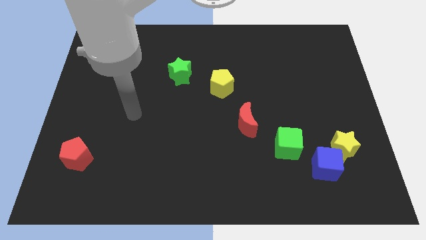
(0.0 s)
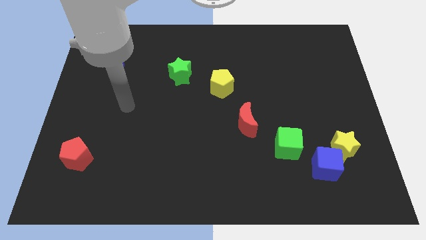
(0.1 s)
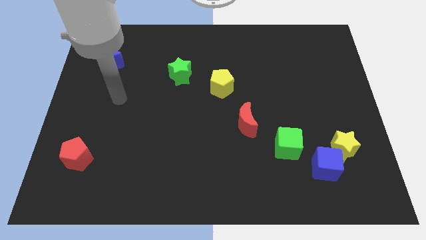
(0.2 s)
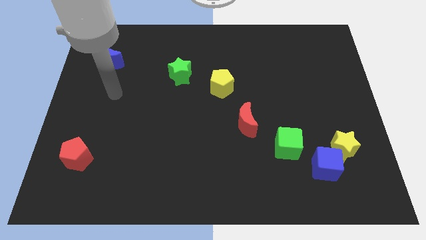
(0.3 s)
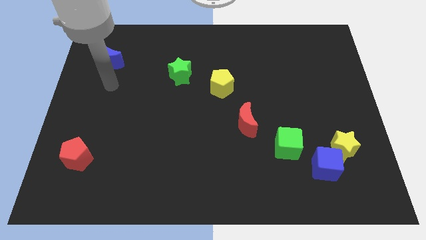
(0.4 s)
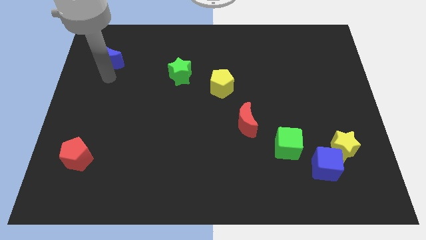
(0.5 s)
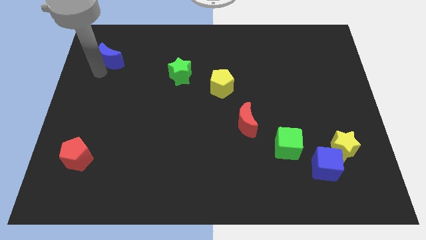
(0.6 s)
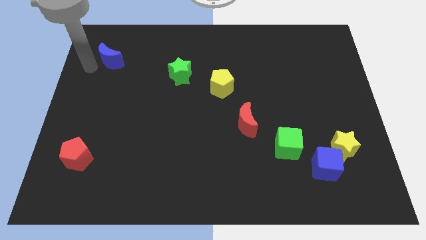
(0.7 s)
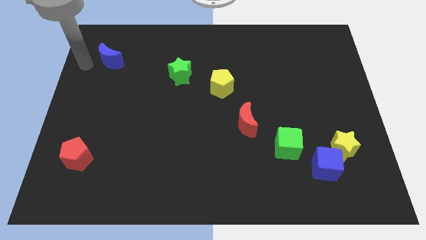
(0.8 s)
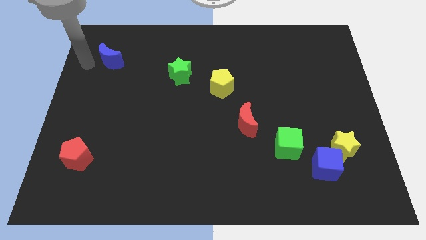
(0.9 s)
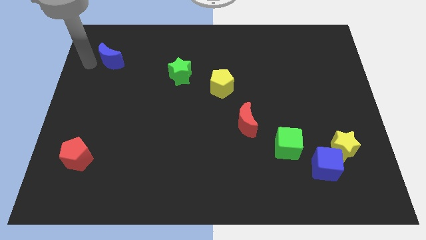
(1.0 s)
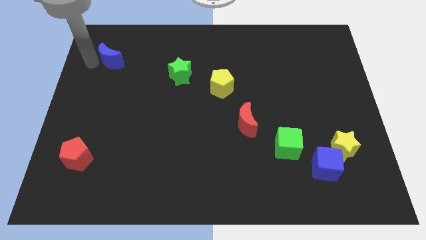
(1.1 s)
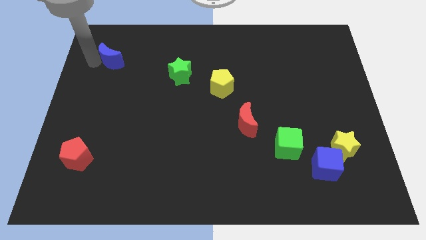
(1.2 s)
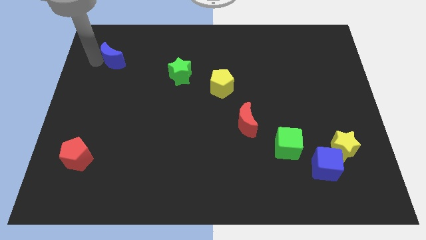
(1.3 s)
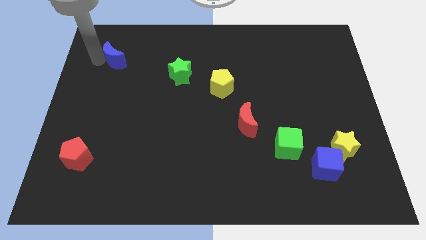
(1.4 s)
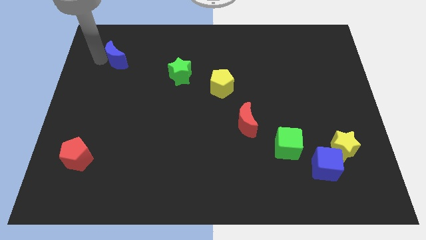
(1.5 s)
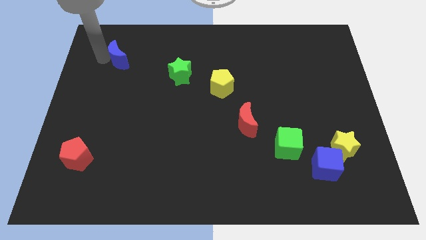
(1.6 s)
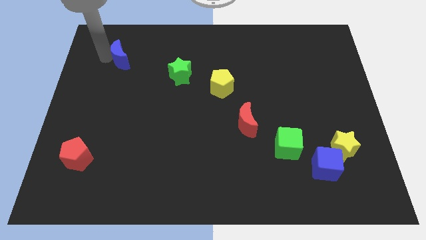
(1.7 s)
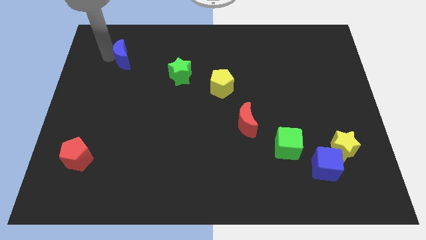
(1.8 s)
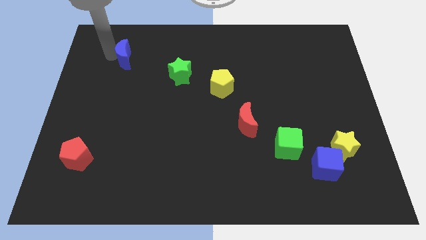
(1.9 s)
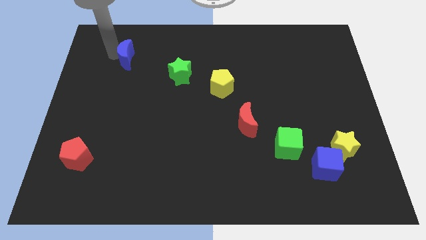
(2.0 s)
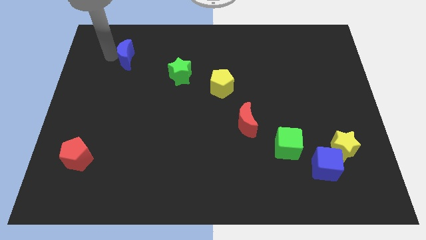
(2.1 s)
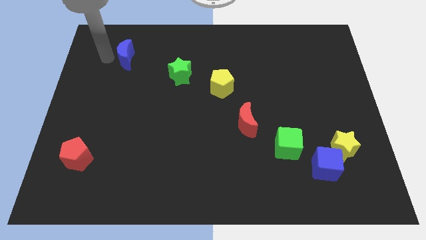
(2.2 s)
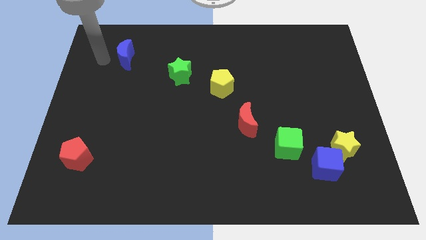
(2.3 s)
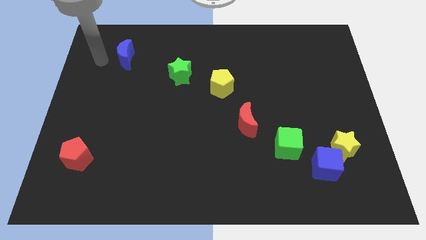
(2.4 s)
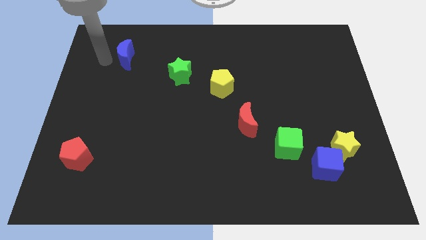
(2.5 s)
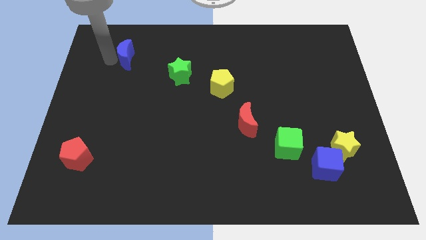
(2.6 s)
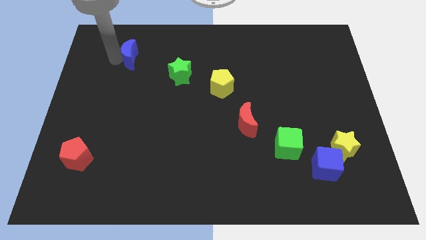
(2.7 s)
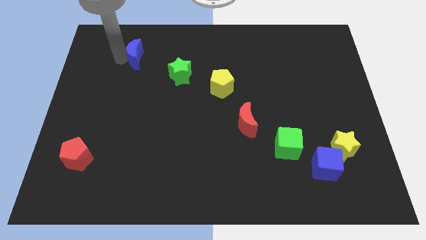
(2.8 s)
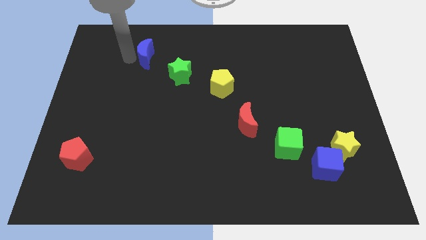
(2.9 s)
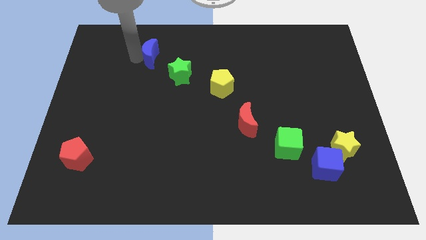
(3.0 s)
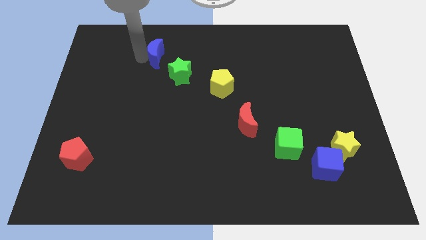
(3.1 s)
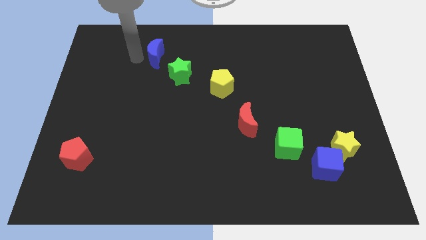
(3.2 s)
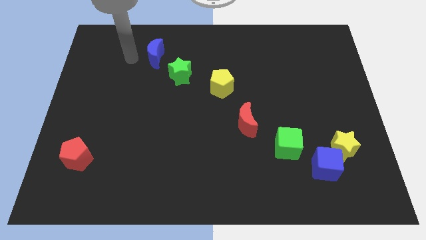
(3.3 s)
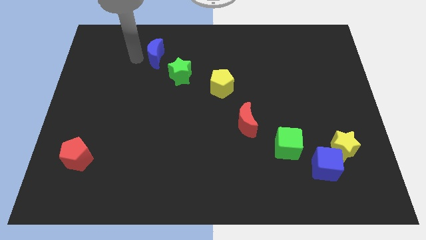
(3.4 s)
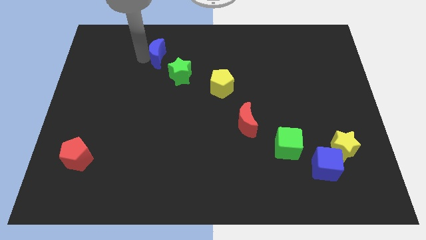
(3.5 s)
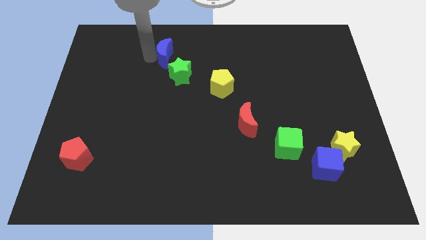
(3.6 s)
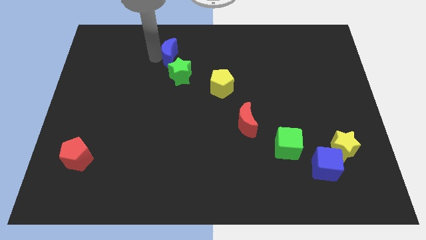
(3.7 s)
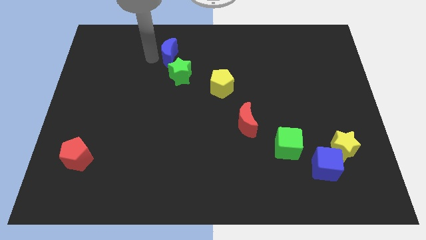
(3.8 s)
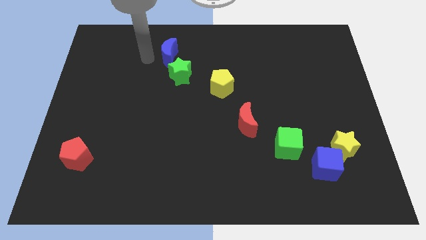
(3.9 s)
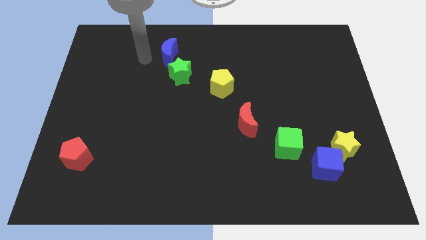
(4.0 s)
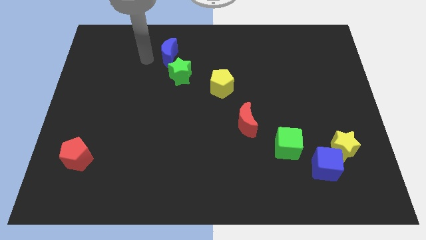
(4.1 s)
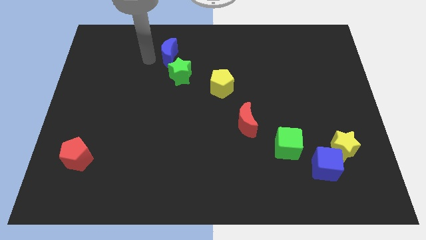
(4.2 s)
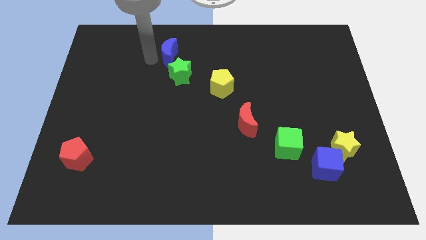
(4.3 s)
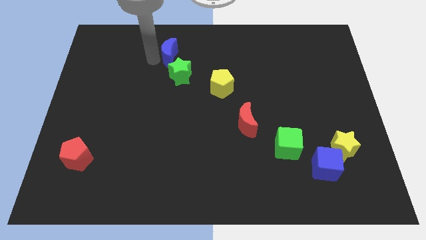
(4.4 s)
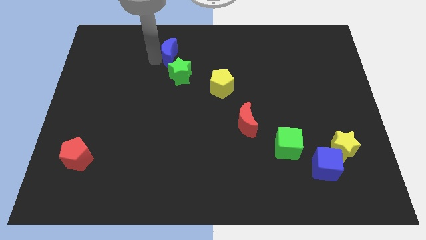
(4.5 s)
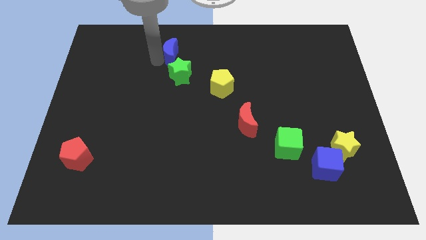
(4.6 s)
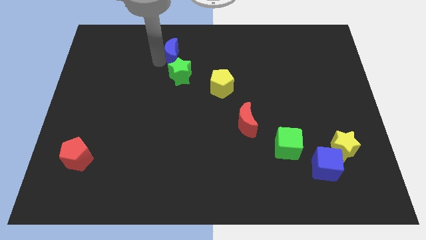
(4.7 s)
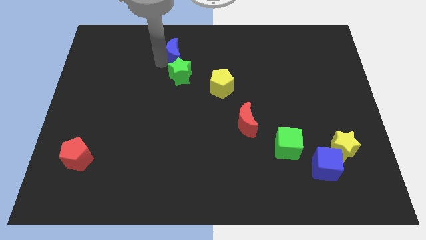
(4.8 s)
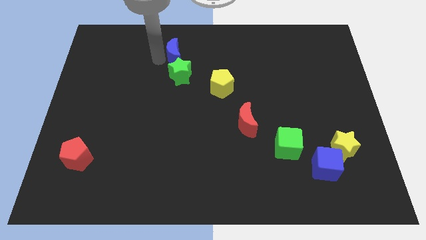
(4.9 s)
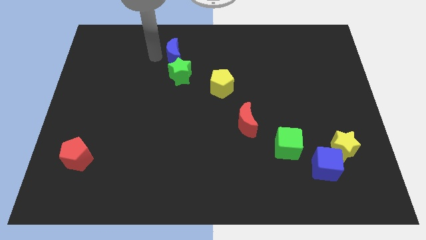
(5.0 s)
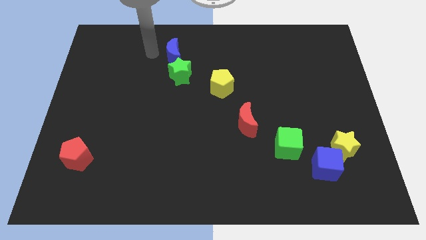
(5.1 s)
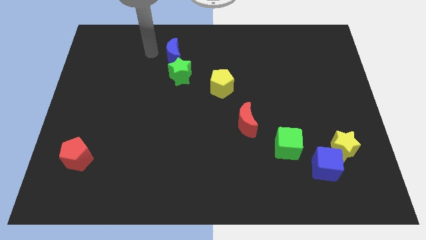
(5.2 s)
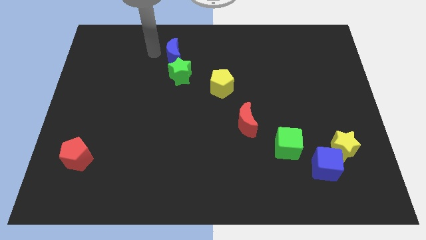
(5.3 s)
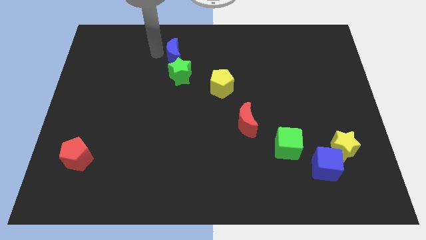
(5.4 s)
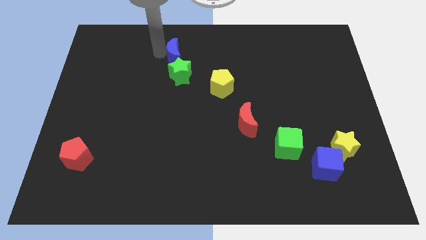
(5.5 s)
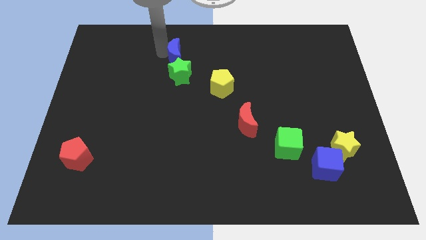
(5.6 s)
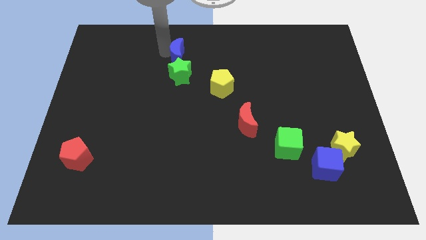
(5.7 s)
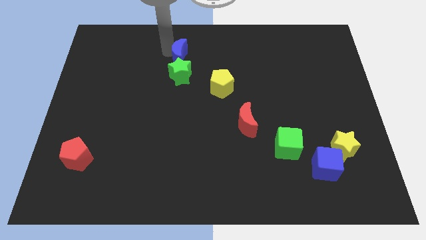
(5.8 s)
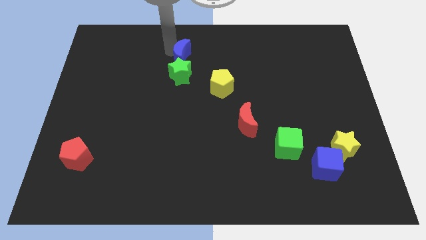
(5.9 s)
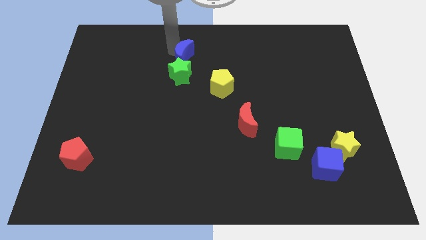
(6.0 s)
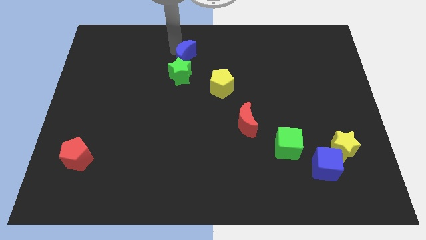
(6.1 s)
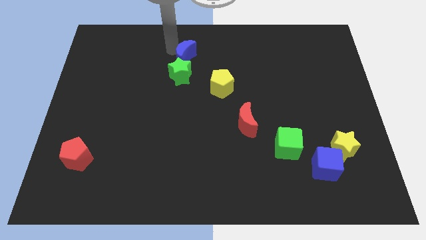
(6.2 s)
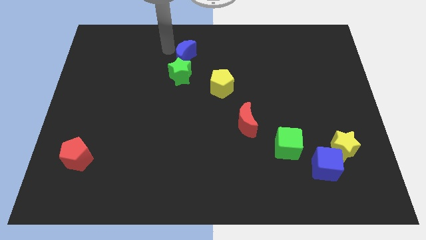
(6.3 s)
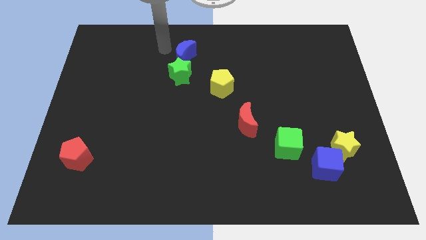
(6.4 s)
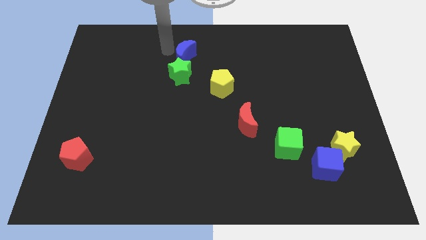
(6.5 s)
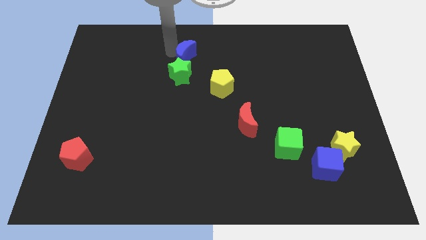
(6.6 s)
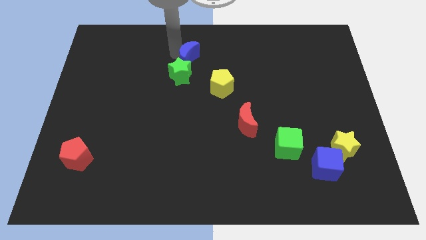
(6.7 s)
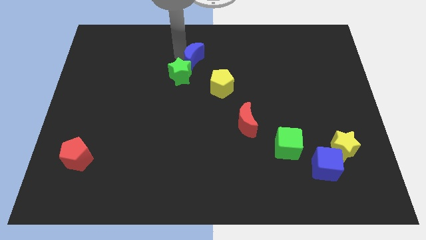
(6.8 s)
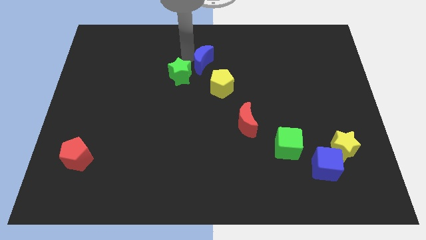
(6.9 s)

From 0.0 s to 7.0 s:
push the blue moon to the right side of the green star
